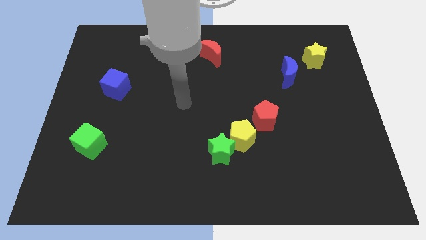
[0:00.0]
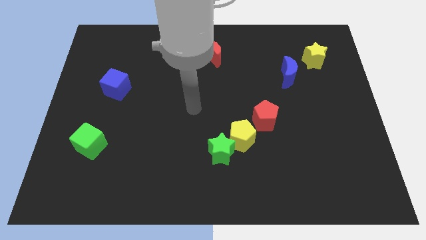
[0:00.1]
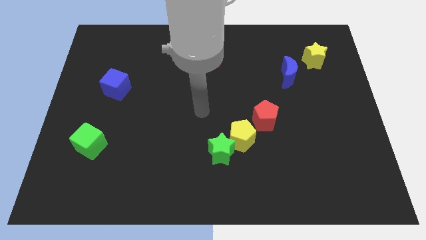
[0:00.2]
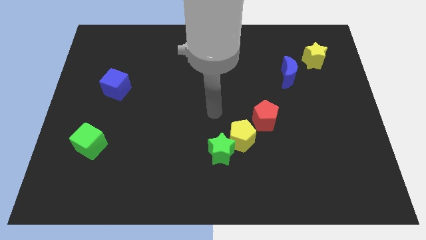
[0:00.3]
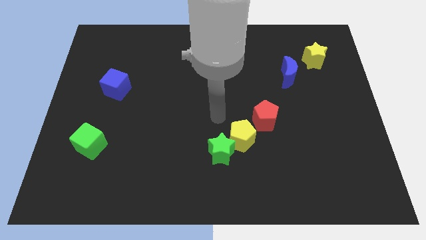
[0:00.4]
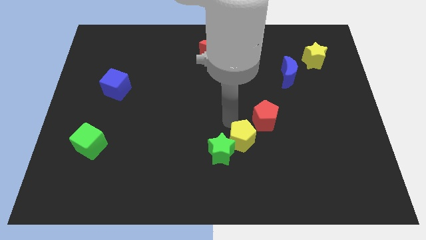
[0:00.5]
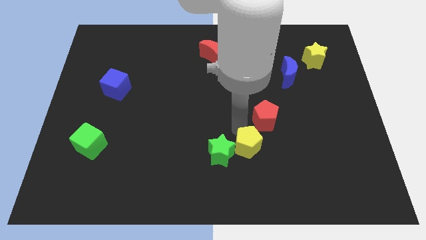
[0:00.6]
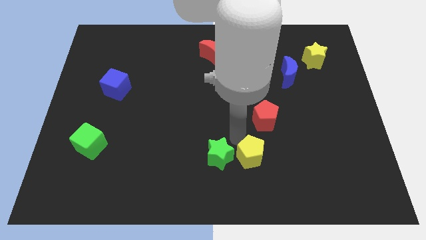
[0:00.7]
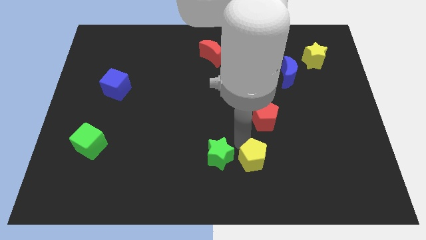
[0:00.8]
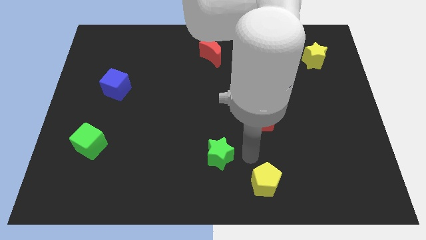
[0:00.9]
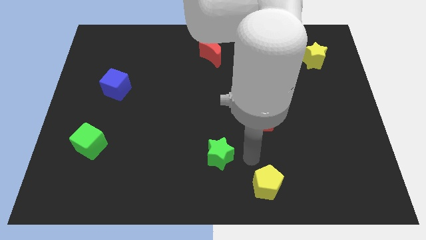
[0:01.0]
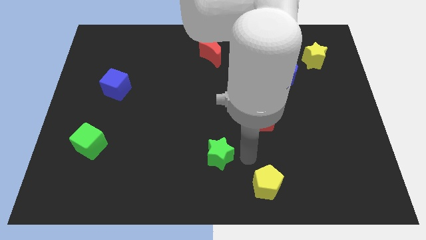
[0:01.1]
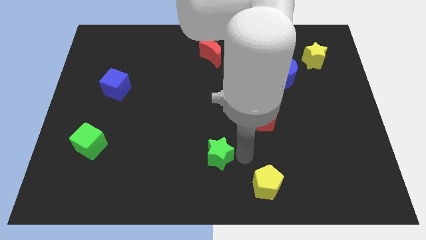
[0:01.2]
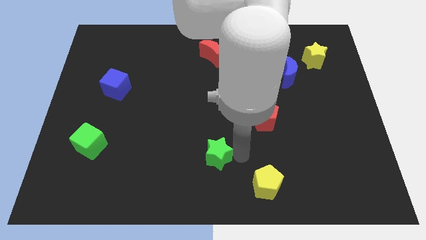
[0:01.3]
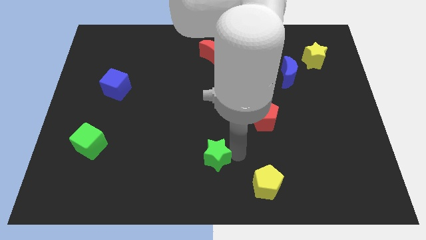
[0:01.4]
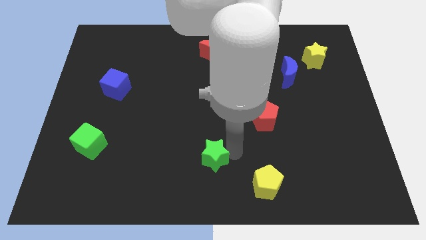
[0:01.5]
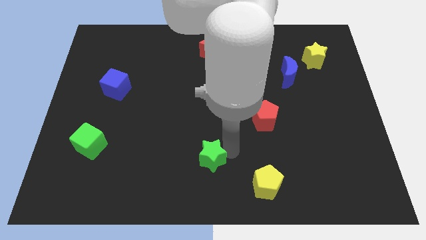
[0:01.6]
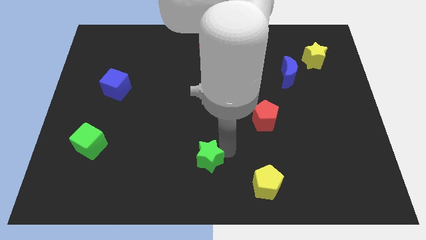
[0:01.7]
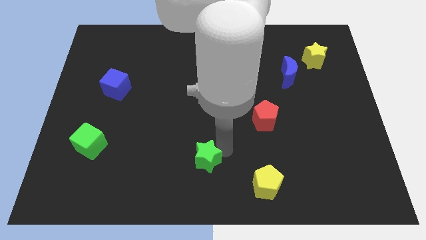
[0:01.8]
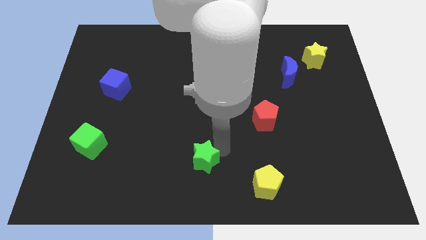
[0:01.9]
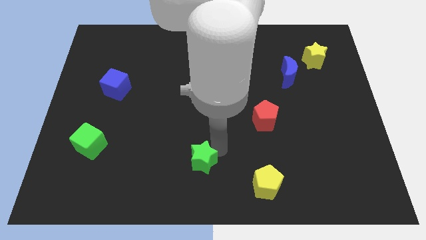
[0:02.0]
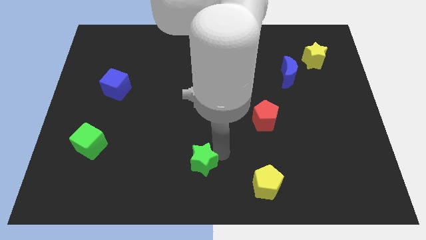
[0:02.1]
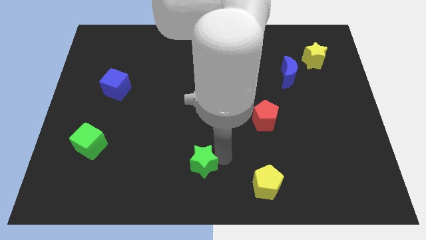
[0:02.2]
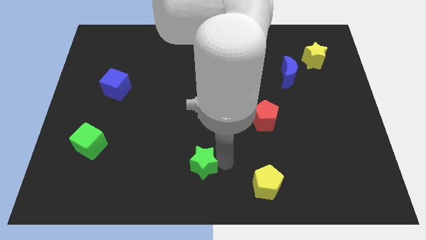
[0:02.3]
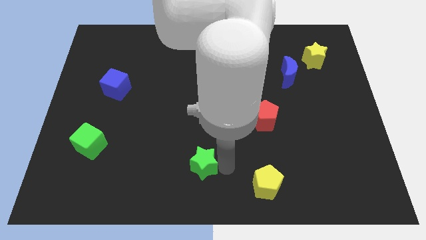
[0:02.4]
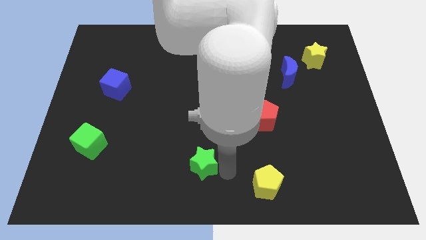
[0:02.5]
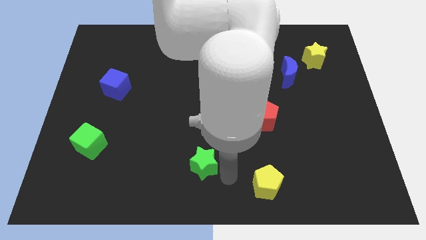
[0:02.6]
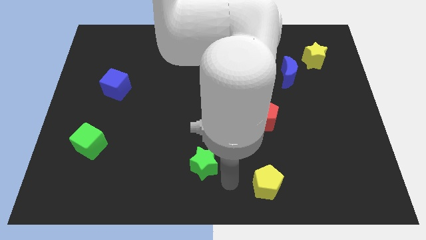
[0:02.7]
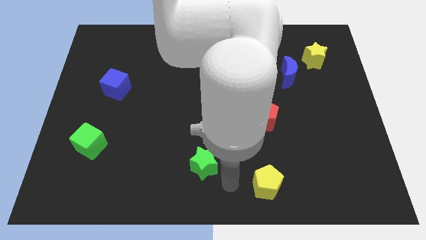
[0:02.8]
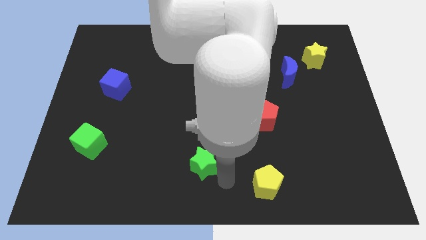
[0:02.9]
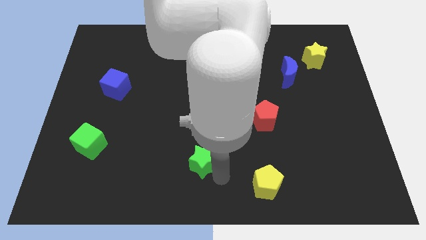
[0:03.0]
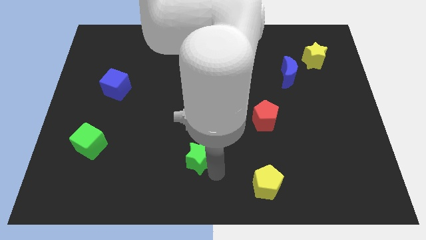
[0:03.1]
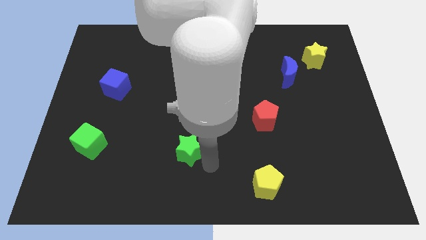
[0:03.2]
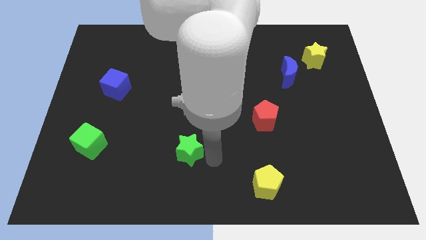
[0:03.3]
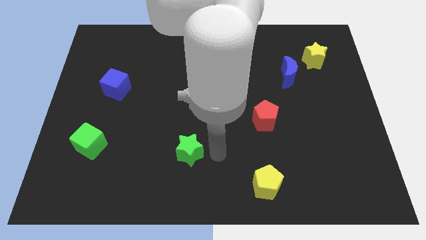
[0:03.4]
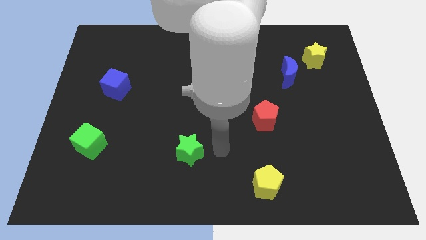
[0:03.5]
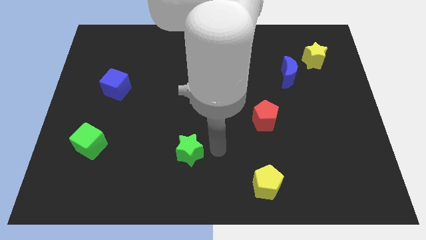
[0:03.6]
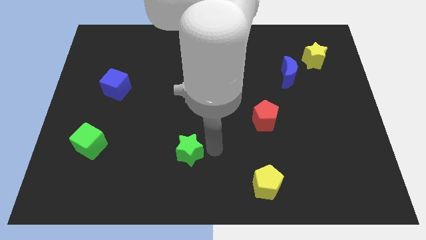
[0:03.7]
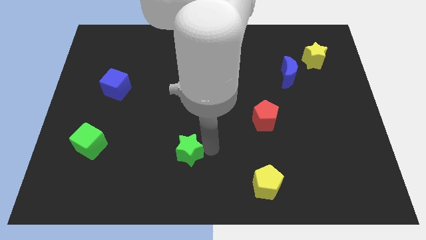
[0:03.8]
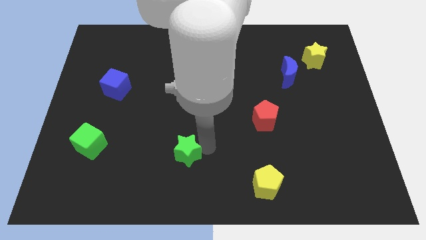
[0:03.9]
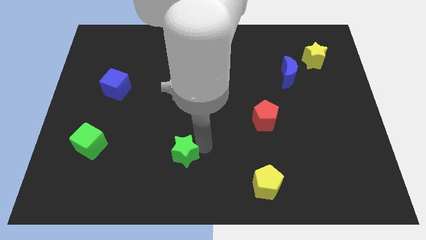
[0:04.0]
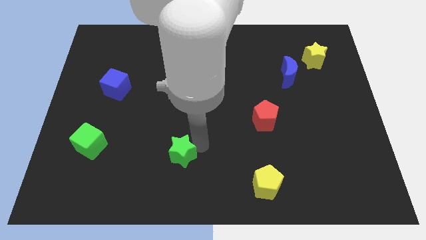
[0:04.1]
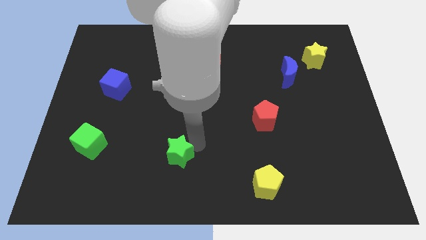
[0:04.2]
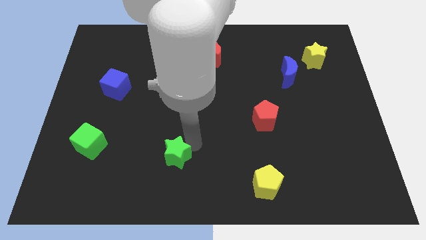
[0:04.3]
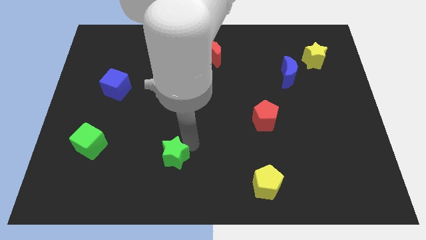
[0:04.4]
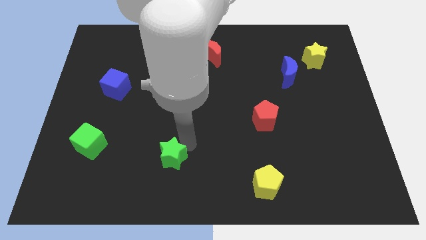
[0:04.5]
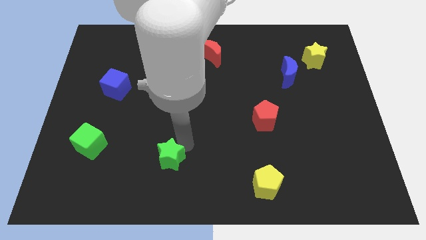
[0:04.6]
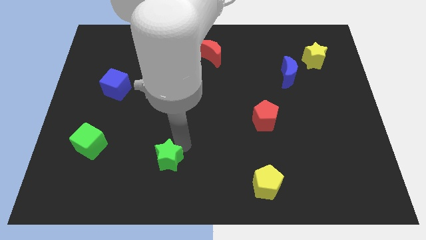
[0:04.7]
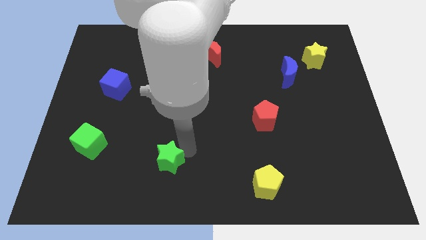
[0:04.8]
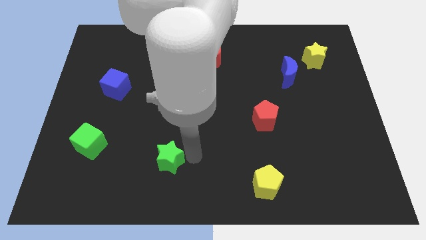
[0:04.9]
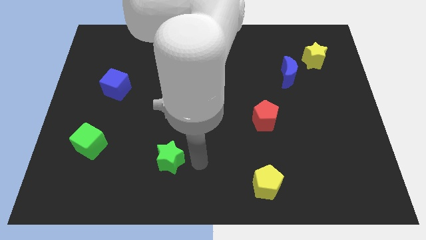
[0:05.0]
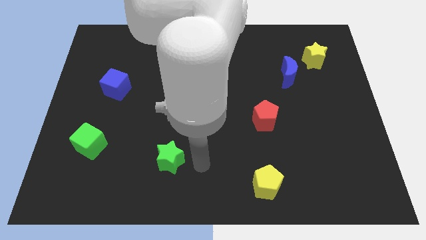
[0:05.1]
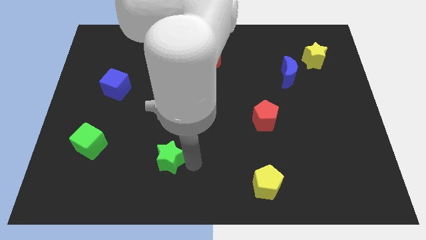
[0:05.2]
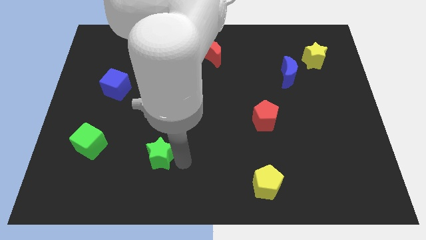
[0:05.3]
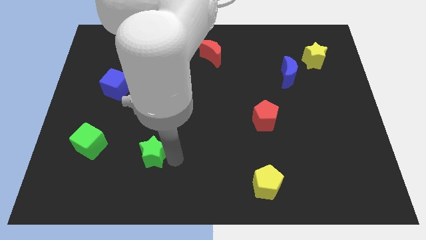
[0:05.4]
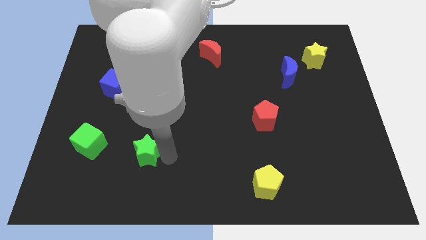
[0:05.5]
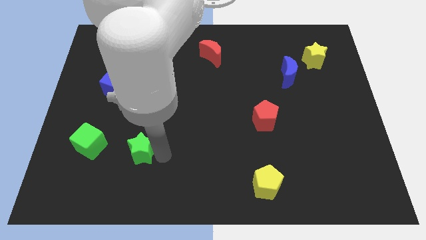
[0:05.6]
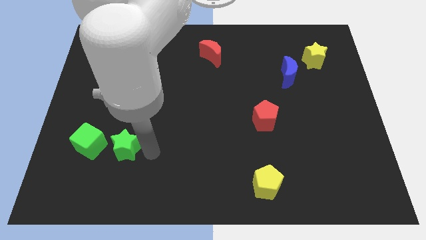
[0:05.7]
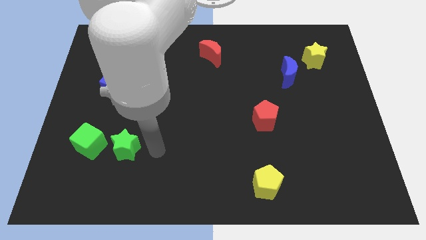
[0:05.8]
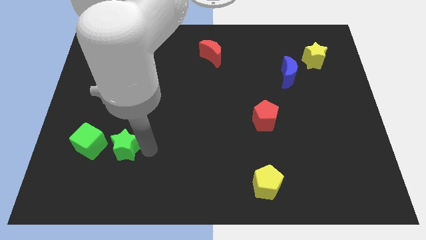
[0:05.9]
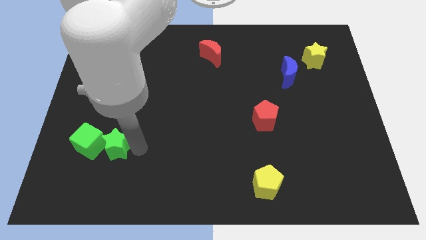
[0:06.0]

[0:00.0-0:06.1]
put the green star next to the green cube

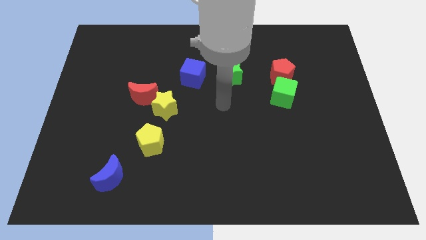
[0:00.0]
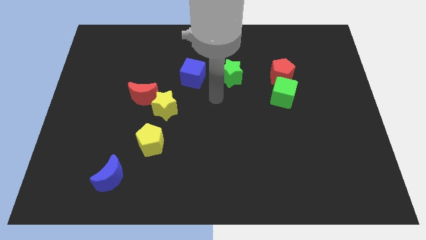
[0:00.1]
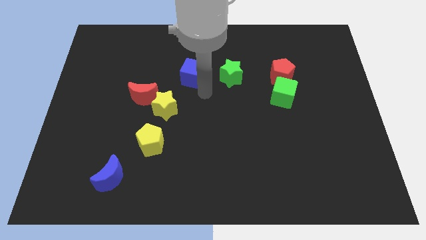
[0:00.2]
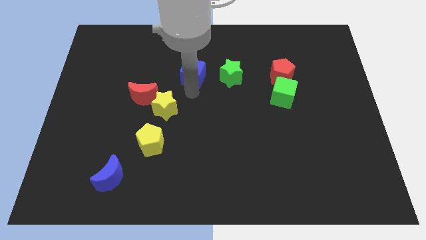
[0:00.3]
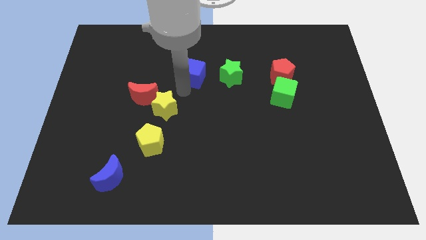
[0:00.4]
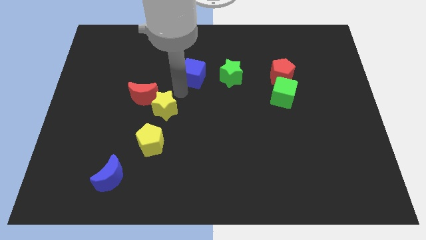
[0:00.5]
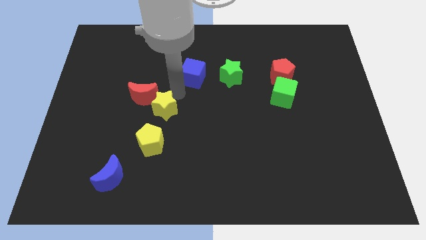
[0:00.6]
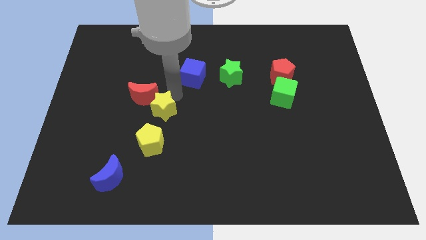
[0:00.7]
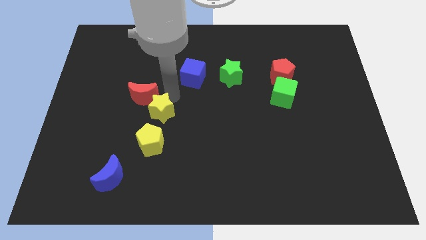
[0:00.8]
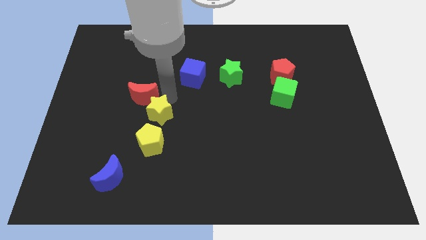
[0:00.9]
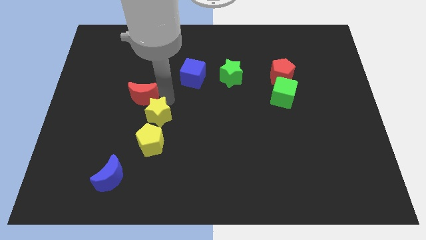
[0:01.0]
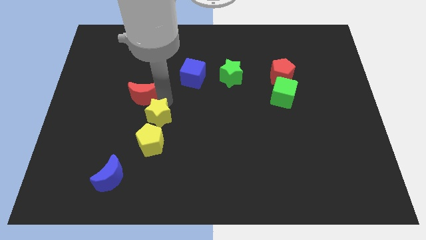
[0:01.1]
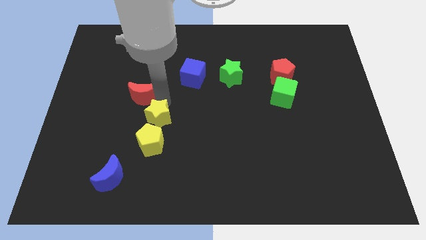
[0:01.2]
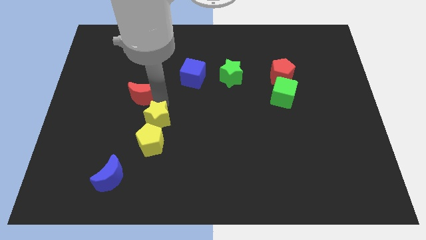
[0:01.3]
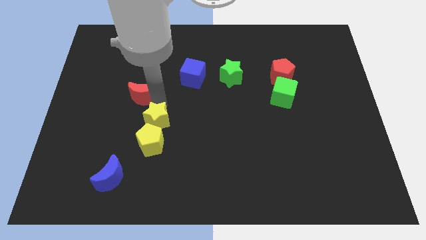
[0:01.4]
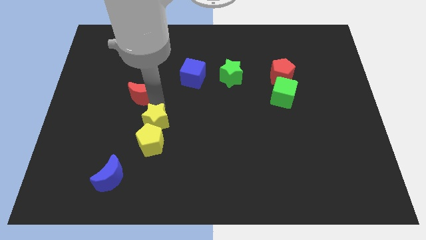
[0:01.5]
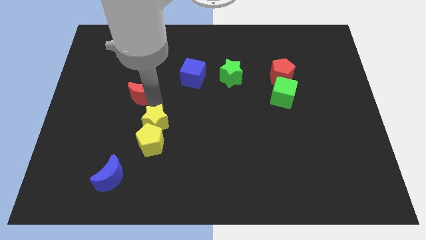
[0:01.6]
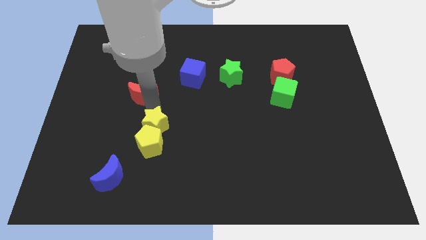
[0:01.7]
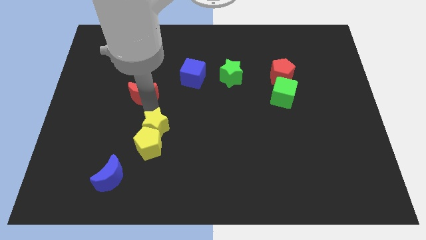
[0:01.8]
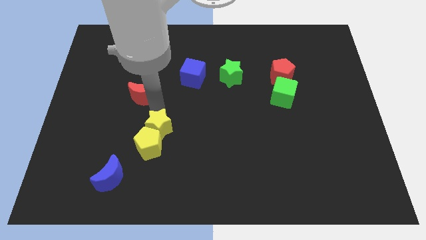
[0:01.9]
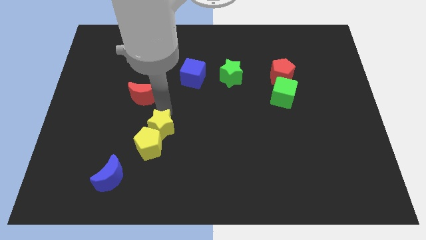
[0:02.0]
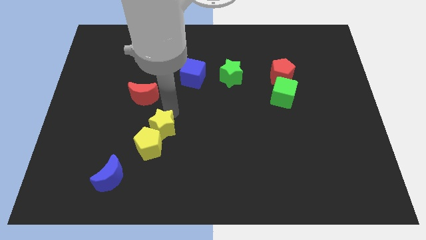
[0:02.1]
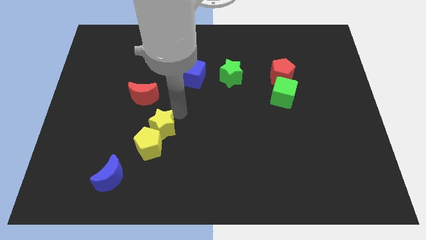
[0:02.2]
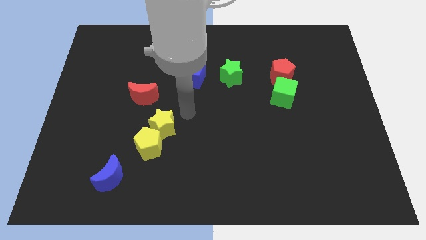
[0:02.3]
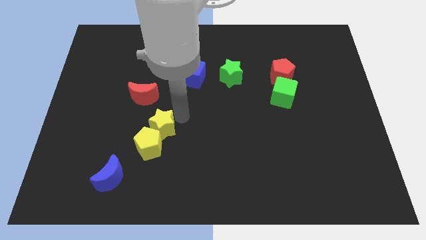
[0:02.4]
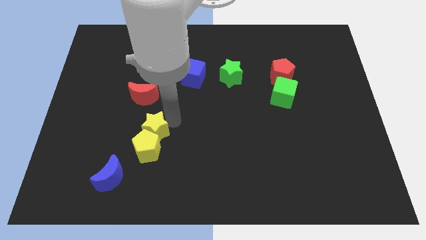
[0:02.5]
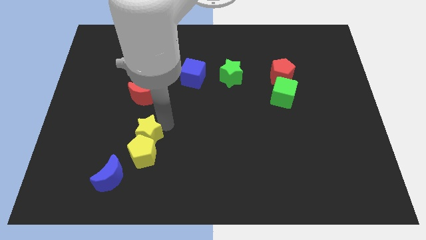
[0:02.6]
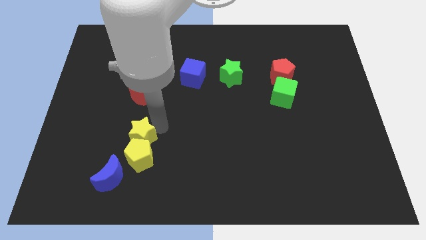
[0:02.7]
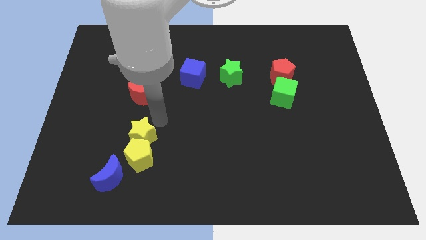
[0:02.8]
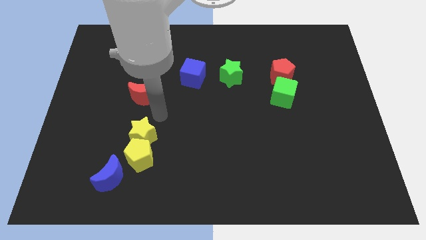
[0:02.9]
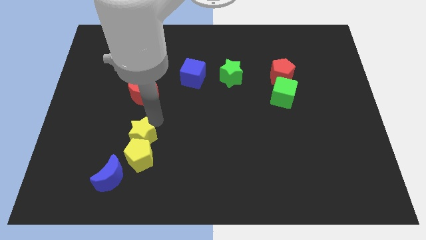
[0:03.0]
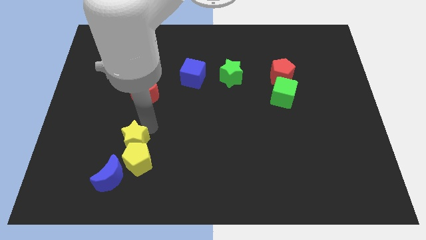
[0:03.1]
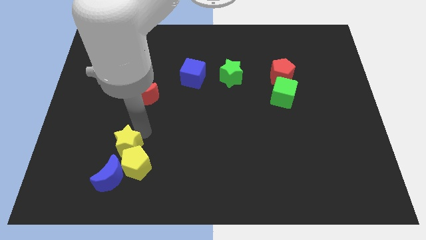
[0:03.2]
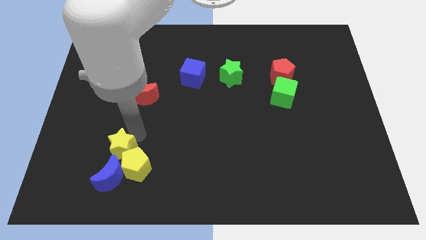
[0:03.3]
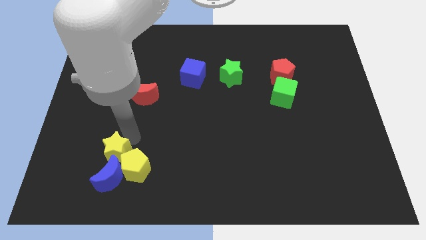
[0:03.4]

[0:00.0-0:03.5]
put the yellow star towards the blue moon
